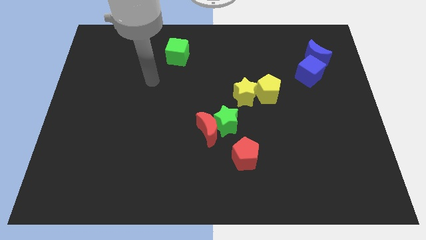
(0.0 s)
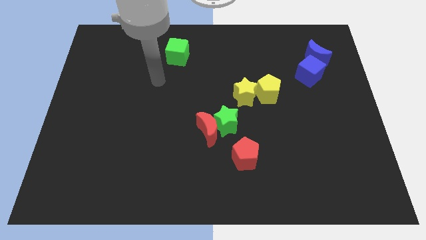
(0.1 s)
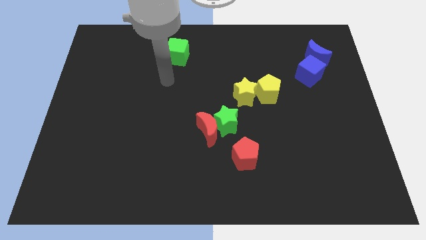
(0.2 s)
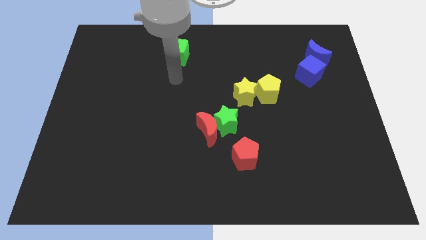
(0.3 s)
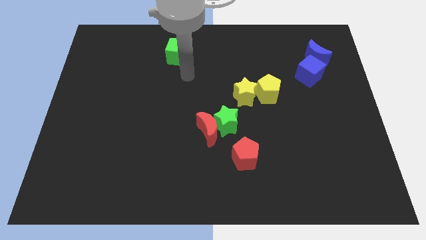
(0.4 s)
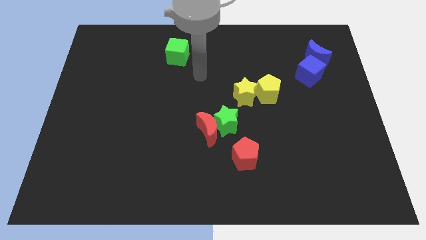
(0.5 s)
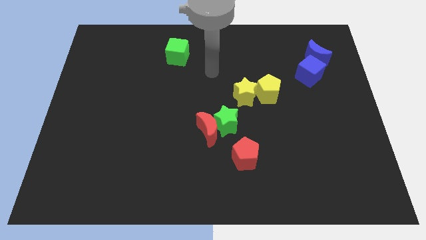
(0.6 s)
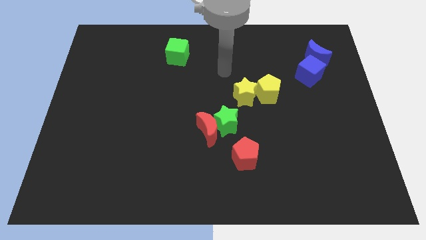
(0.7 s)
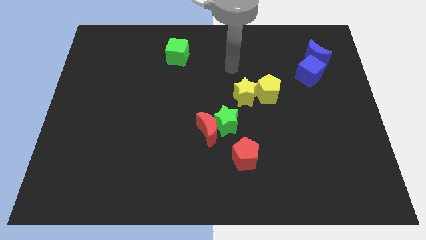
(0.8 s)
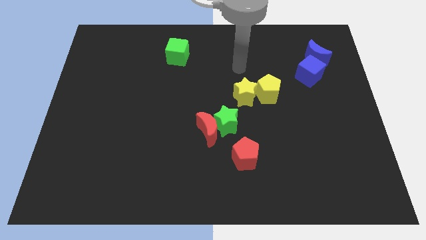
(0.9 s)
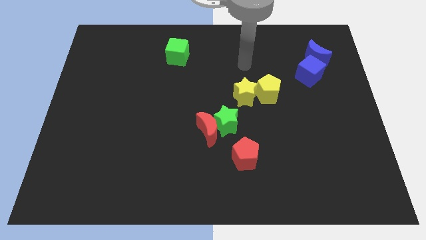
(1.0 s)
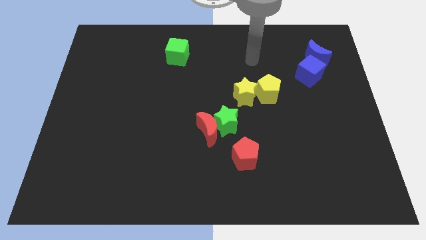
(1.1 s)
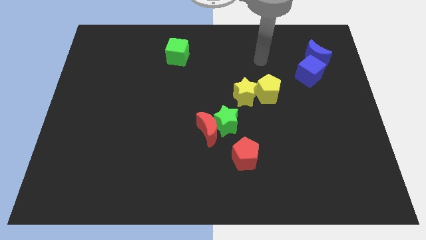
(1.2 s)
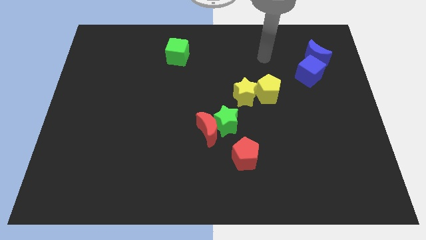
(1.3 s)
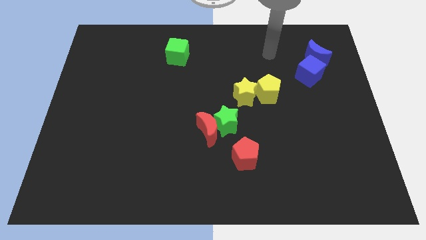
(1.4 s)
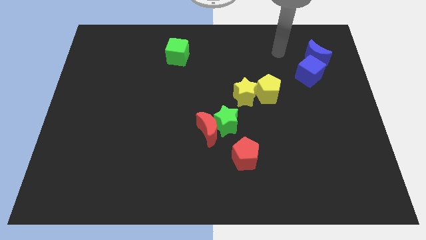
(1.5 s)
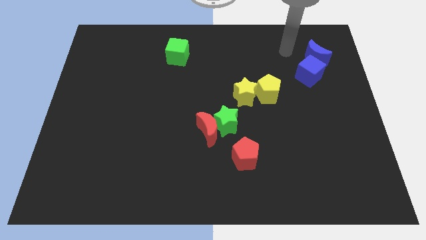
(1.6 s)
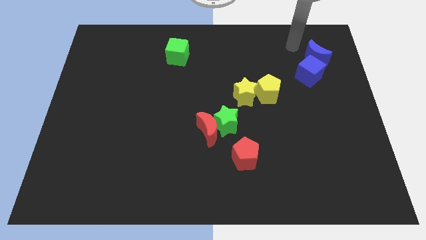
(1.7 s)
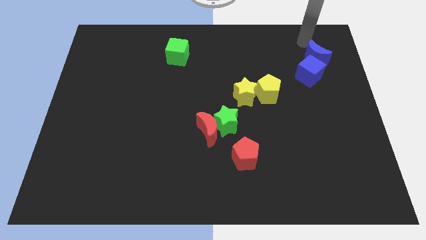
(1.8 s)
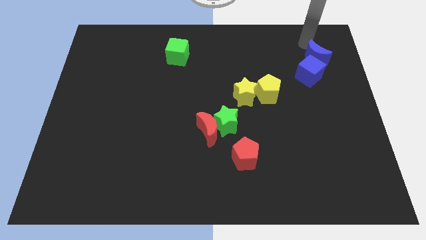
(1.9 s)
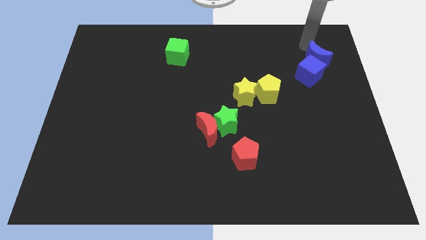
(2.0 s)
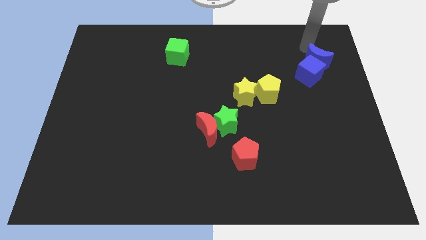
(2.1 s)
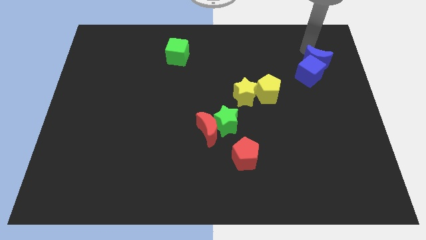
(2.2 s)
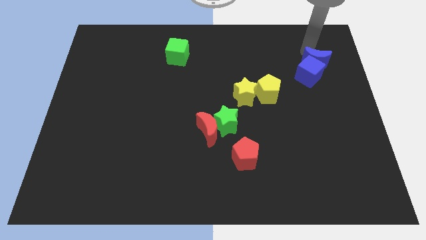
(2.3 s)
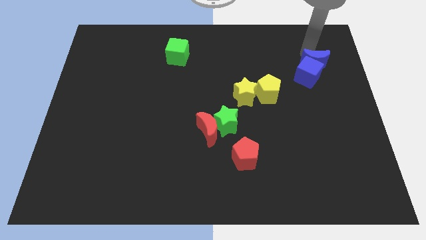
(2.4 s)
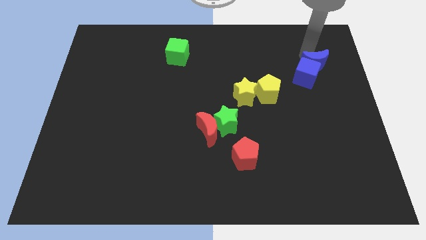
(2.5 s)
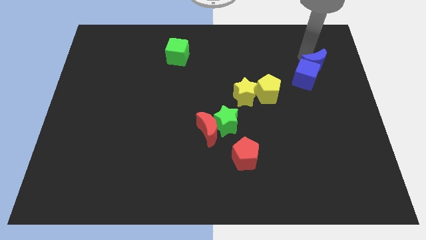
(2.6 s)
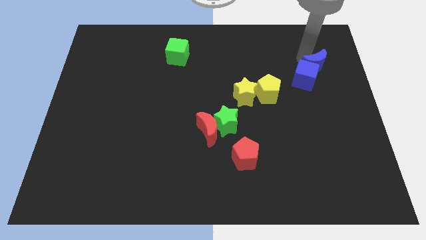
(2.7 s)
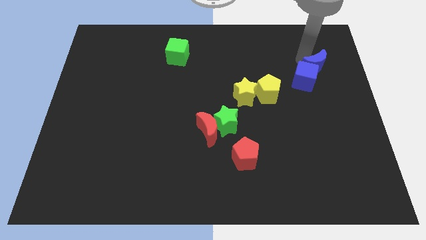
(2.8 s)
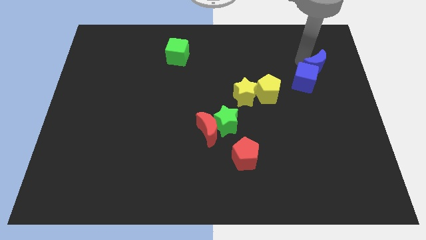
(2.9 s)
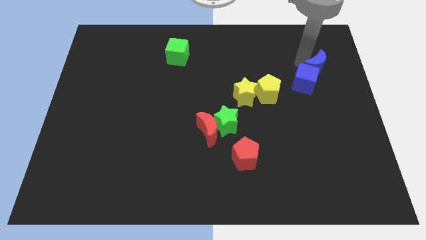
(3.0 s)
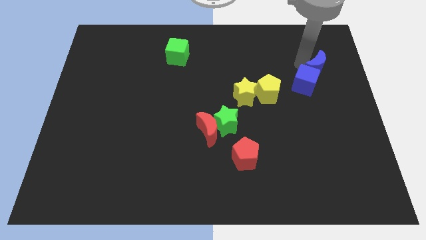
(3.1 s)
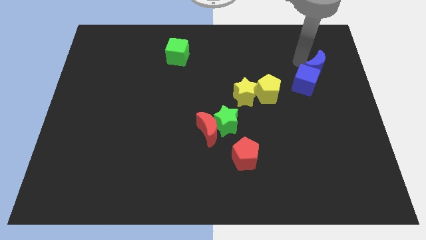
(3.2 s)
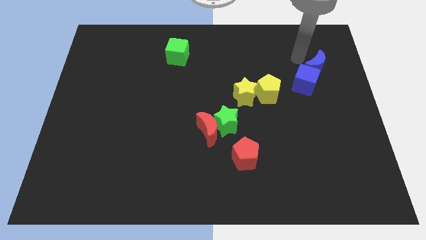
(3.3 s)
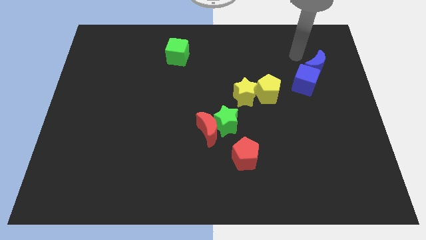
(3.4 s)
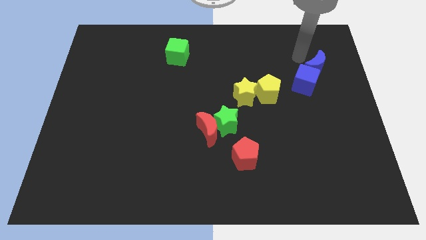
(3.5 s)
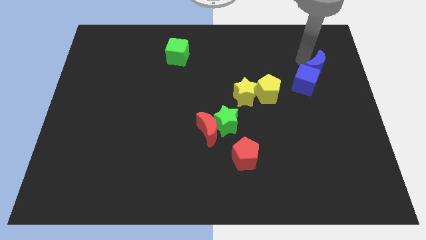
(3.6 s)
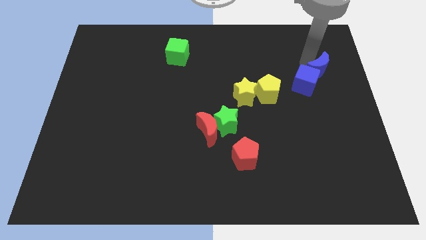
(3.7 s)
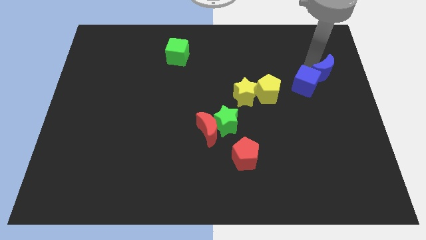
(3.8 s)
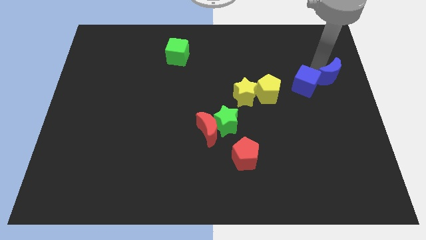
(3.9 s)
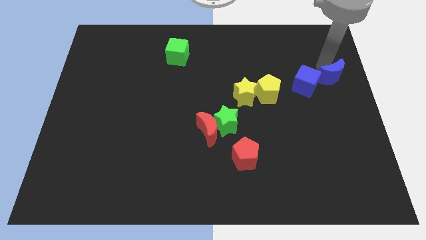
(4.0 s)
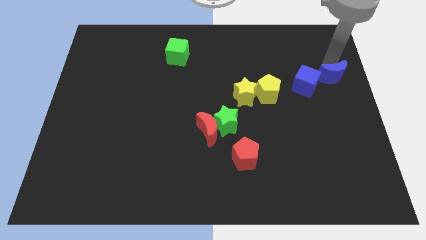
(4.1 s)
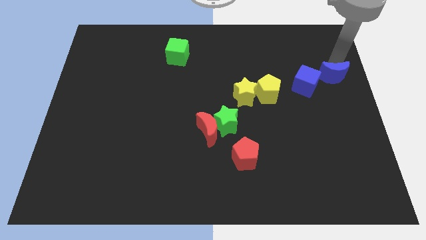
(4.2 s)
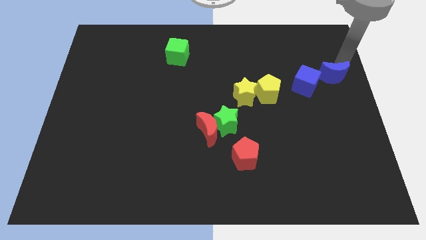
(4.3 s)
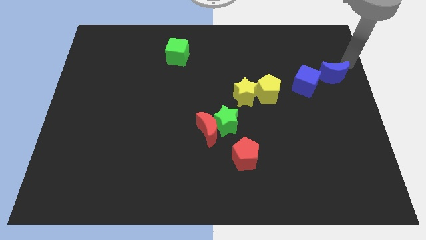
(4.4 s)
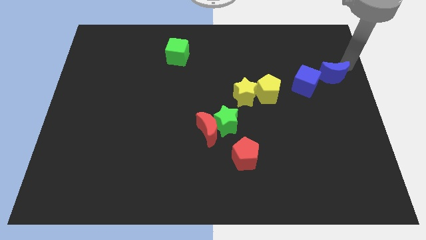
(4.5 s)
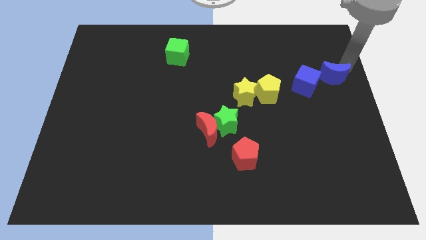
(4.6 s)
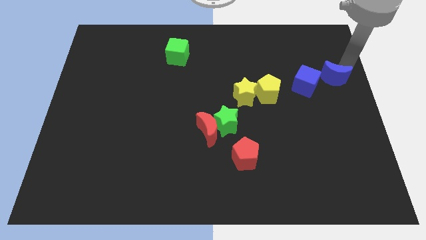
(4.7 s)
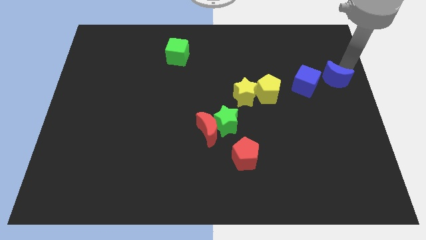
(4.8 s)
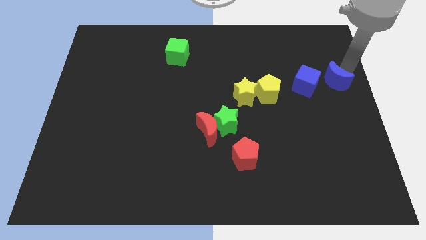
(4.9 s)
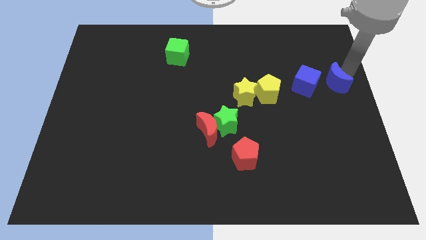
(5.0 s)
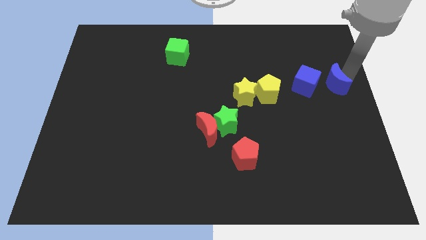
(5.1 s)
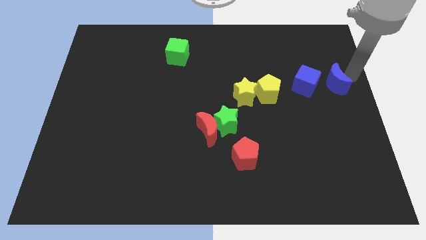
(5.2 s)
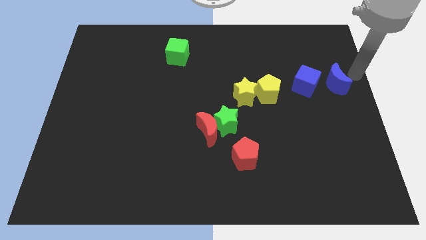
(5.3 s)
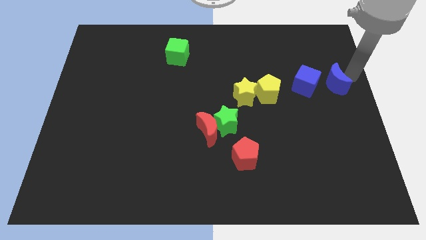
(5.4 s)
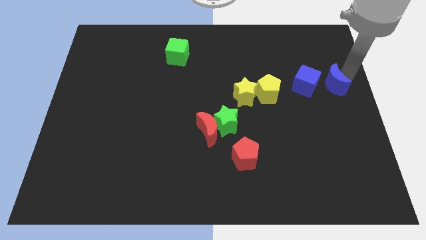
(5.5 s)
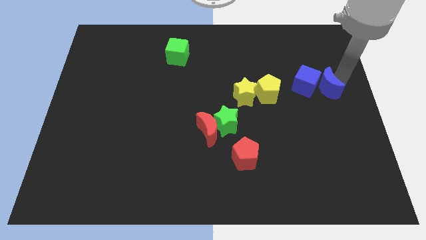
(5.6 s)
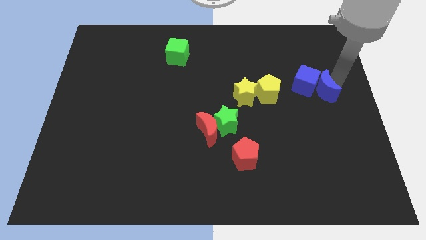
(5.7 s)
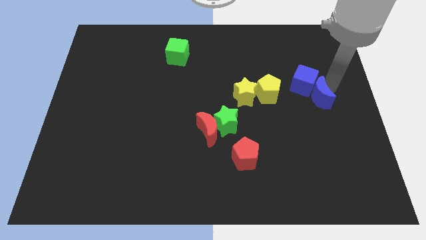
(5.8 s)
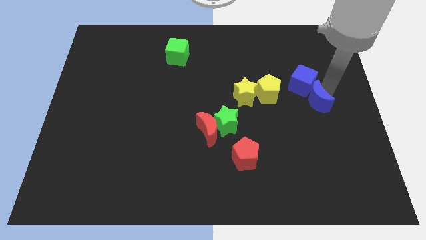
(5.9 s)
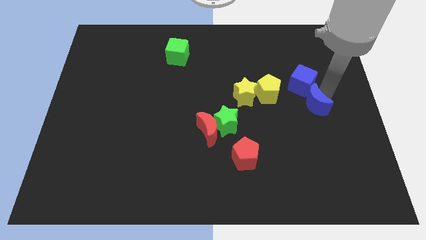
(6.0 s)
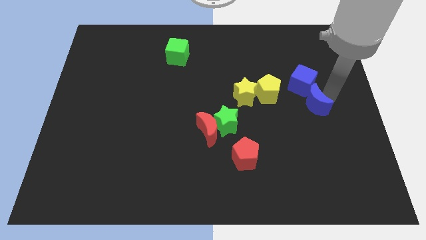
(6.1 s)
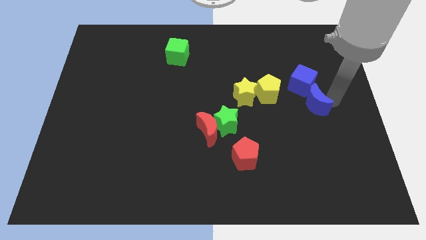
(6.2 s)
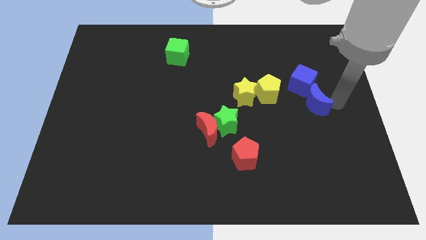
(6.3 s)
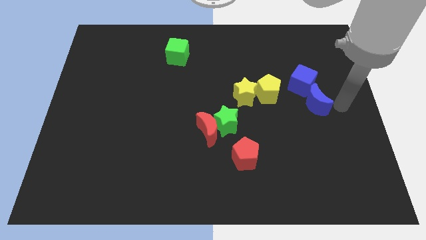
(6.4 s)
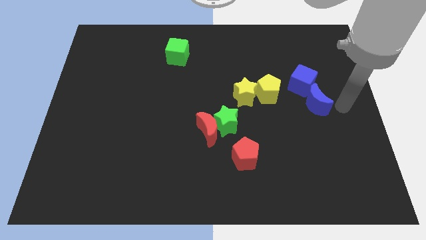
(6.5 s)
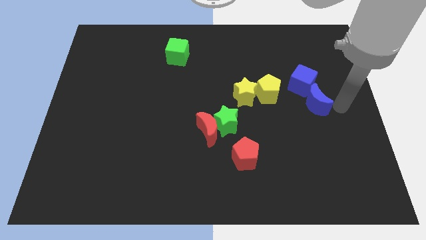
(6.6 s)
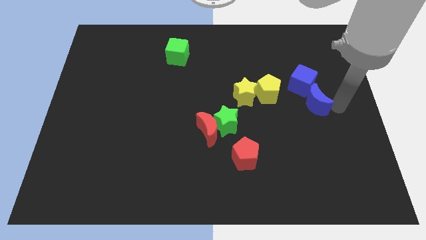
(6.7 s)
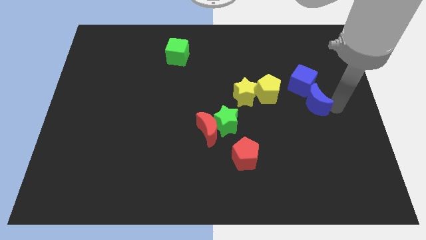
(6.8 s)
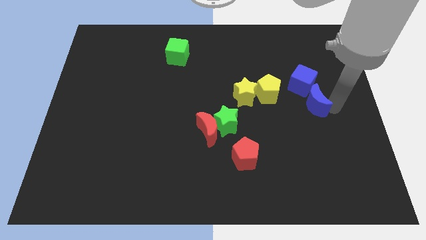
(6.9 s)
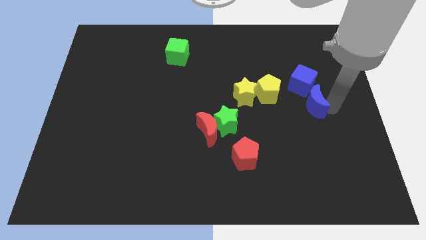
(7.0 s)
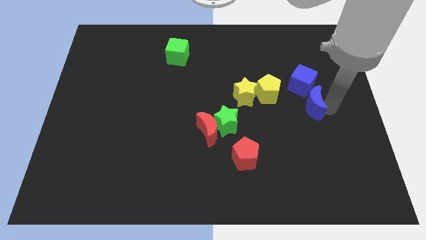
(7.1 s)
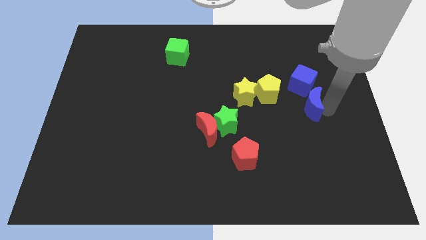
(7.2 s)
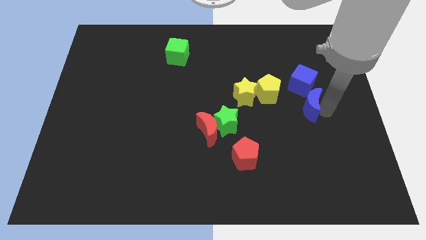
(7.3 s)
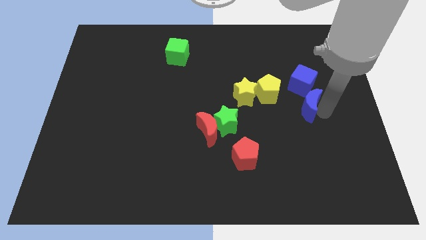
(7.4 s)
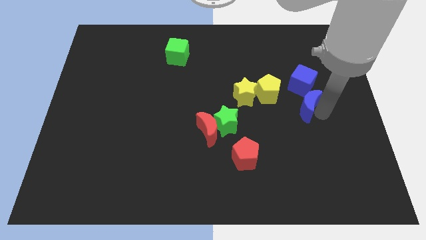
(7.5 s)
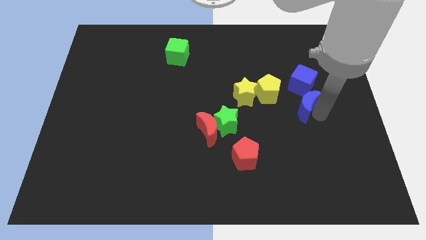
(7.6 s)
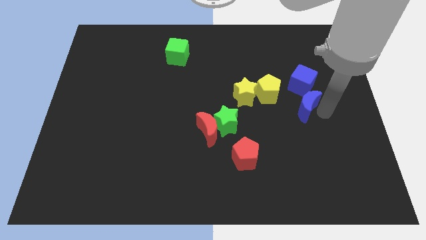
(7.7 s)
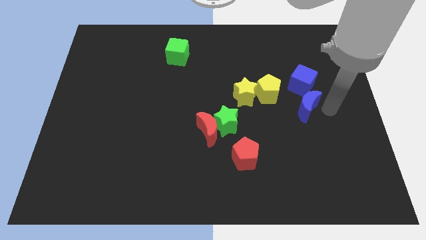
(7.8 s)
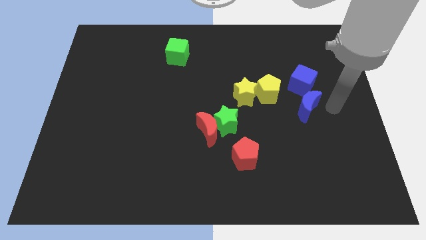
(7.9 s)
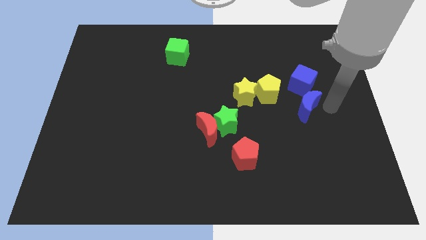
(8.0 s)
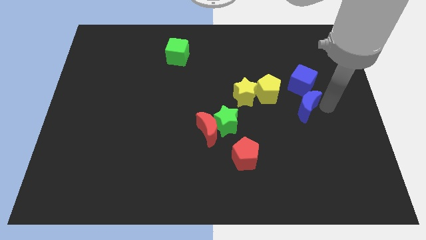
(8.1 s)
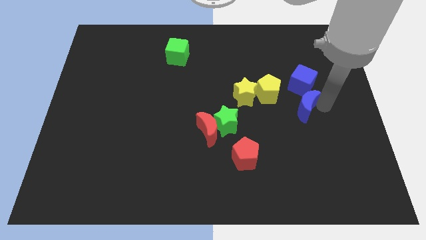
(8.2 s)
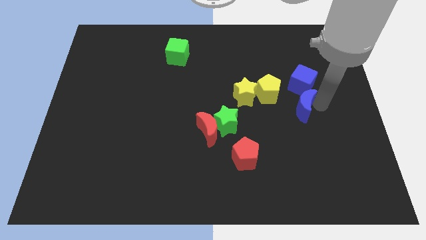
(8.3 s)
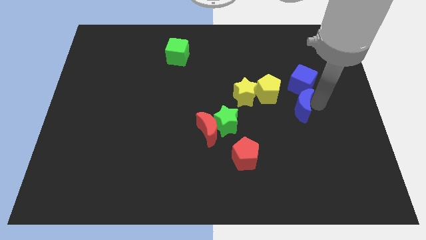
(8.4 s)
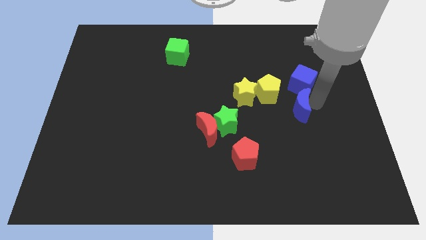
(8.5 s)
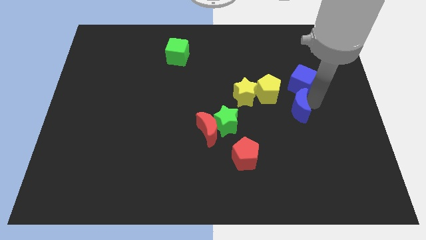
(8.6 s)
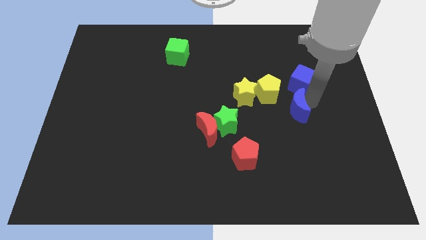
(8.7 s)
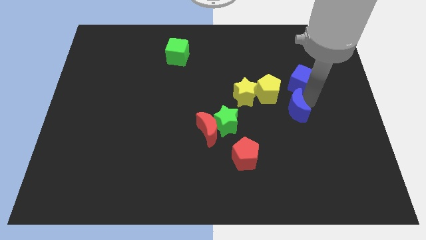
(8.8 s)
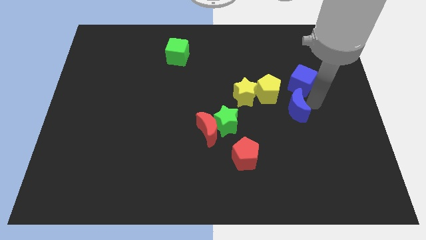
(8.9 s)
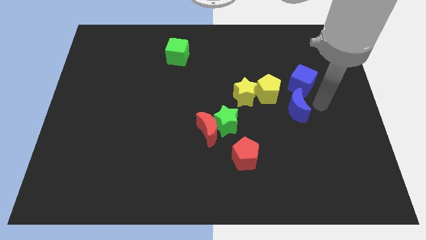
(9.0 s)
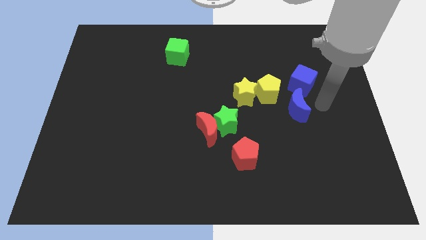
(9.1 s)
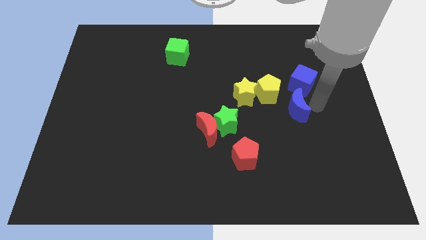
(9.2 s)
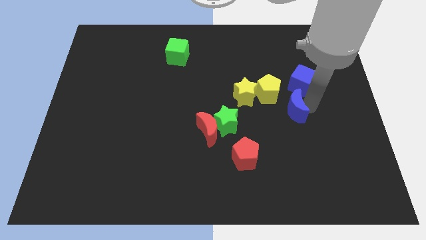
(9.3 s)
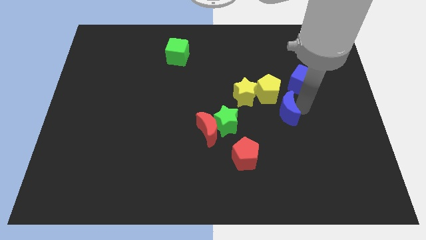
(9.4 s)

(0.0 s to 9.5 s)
put the blue moon to the bottom right of the yellow star
